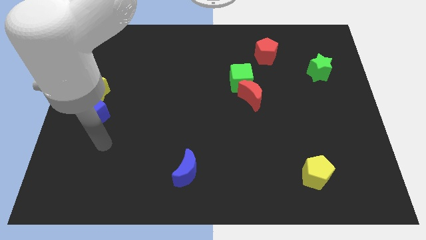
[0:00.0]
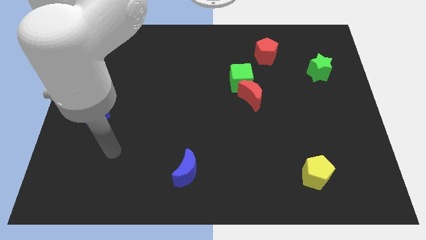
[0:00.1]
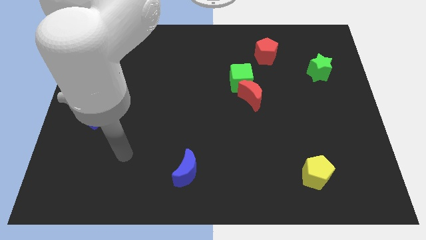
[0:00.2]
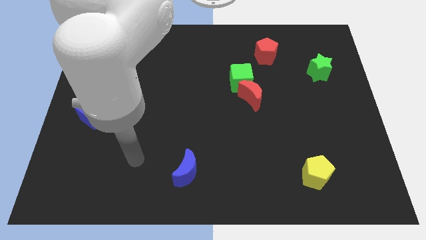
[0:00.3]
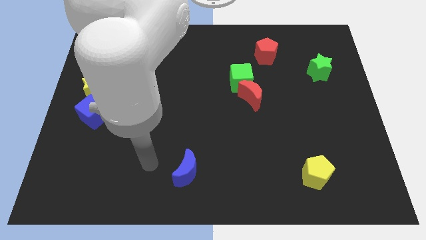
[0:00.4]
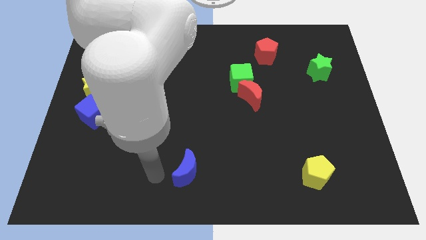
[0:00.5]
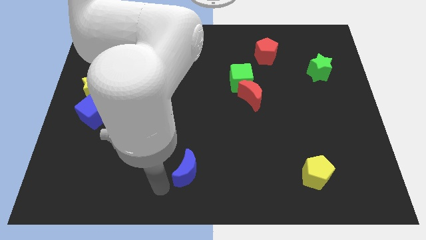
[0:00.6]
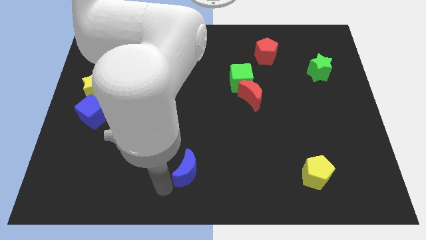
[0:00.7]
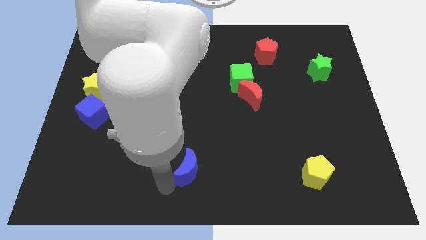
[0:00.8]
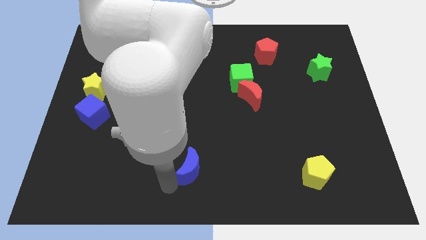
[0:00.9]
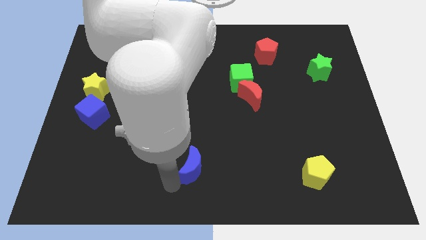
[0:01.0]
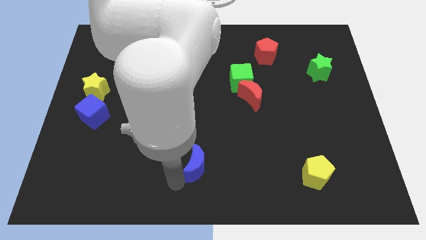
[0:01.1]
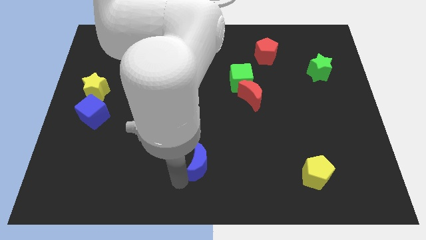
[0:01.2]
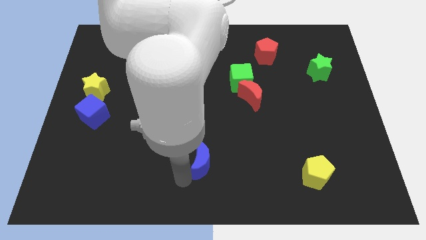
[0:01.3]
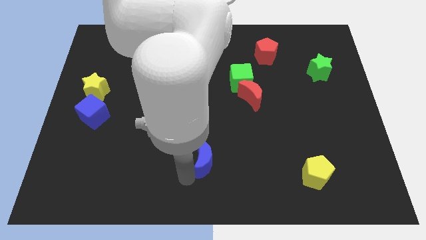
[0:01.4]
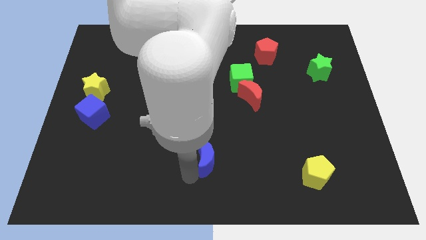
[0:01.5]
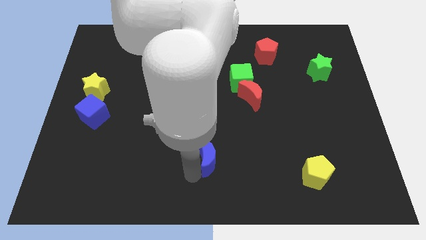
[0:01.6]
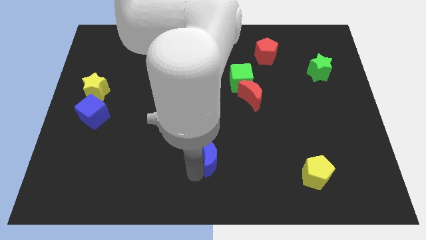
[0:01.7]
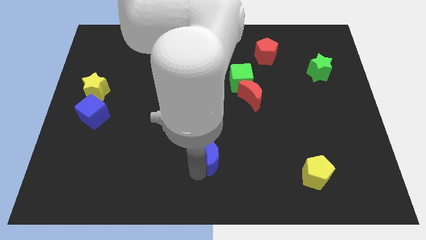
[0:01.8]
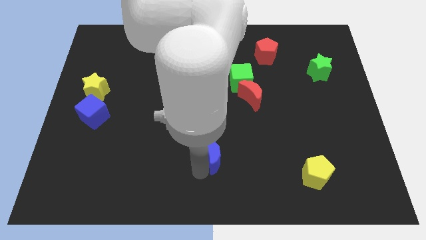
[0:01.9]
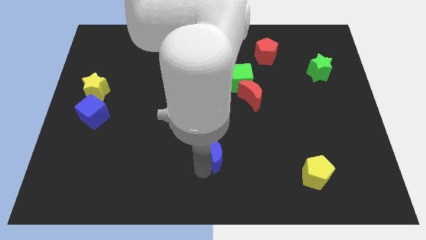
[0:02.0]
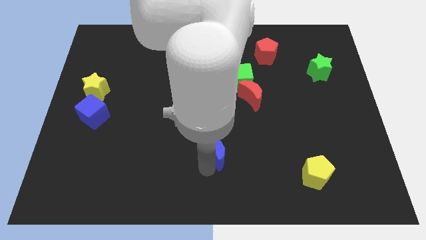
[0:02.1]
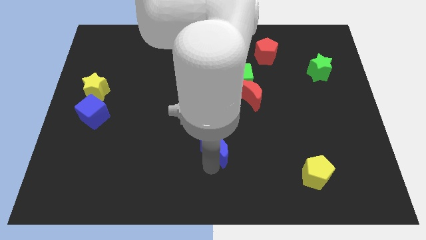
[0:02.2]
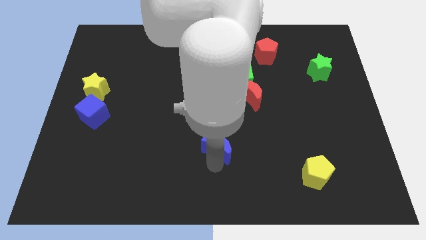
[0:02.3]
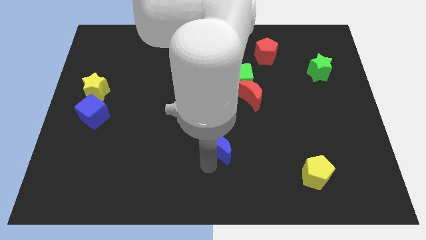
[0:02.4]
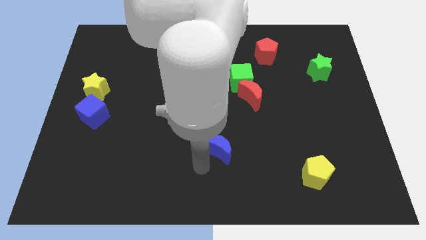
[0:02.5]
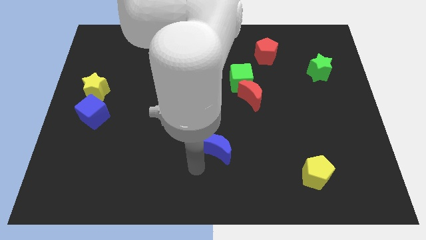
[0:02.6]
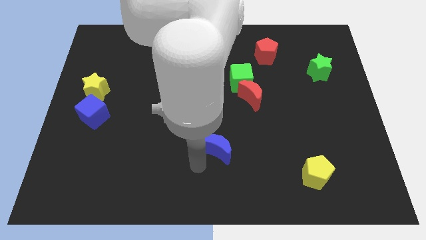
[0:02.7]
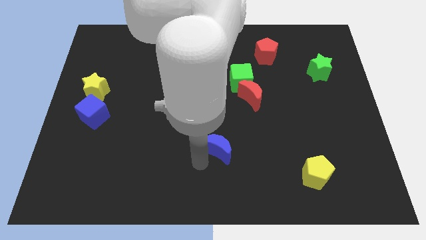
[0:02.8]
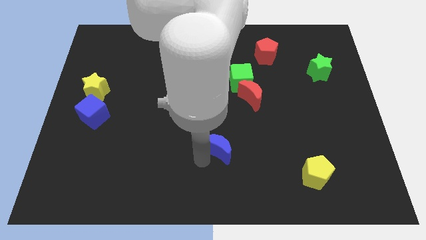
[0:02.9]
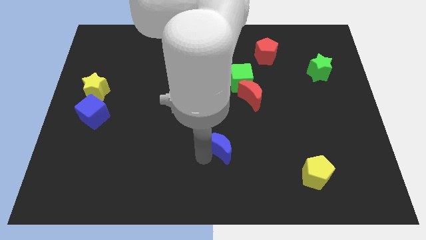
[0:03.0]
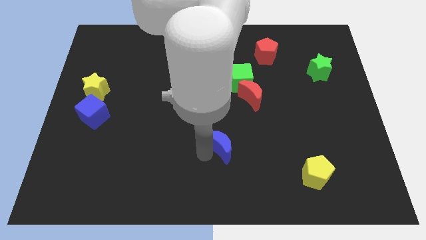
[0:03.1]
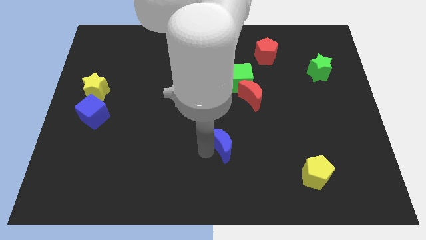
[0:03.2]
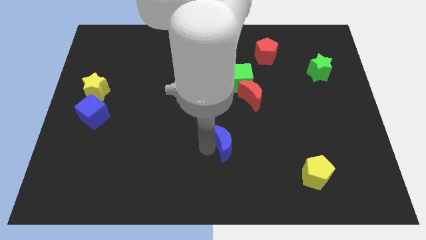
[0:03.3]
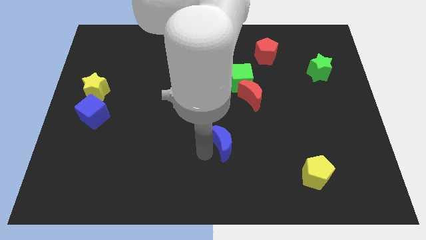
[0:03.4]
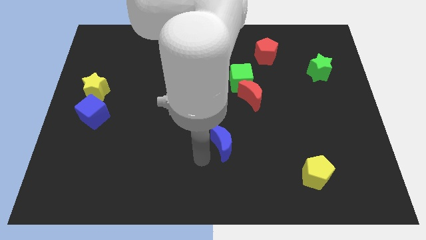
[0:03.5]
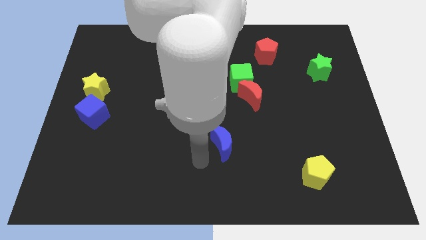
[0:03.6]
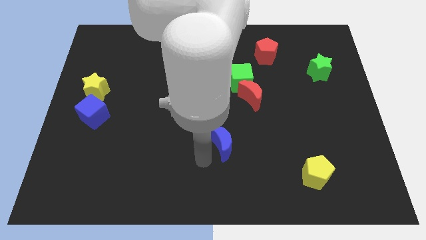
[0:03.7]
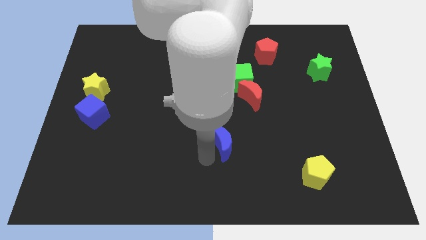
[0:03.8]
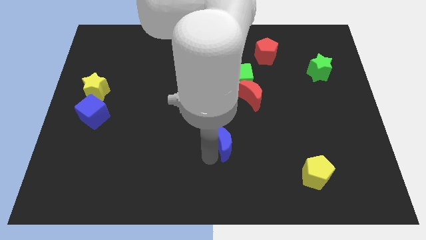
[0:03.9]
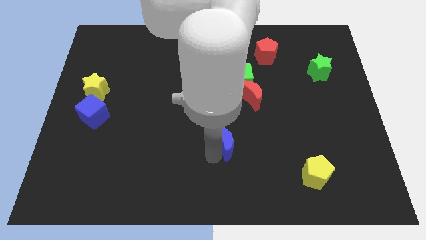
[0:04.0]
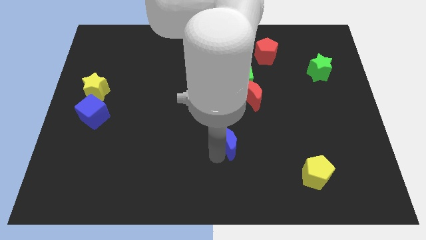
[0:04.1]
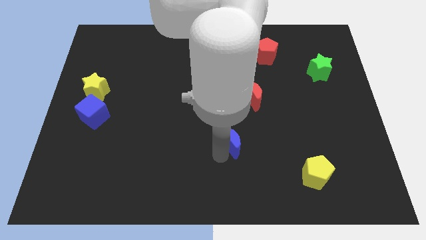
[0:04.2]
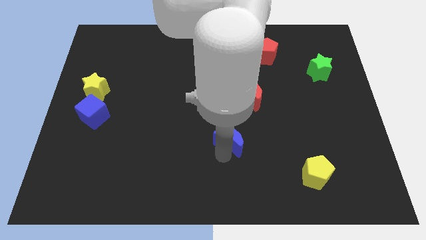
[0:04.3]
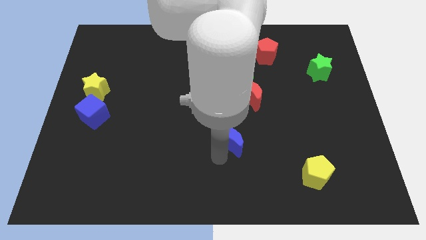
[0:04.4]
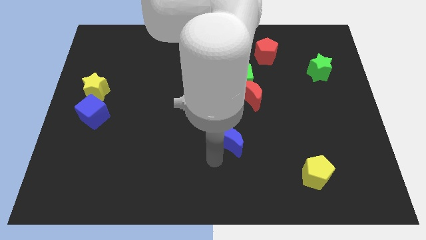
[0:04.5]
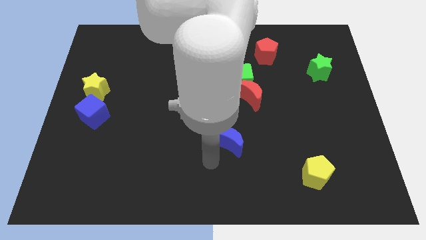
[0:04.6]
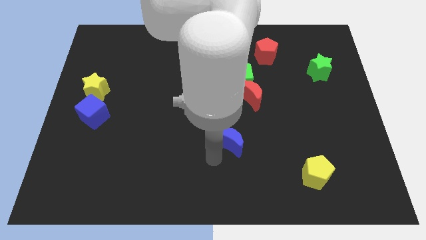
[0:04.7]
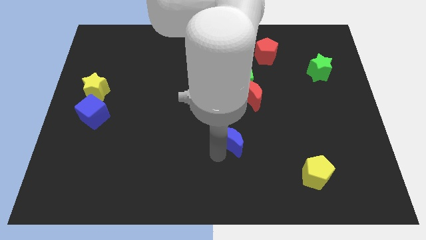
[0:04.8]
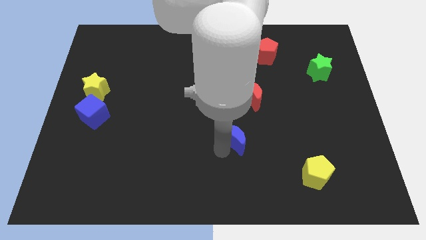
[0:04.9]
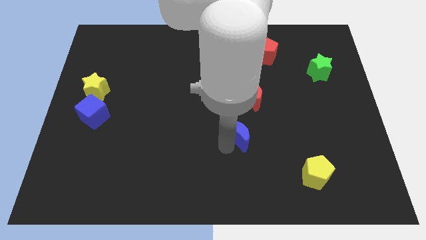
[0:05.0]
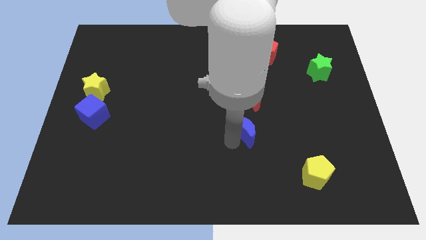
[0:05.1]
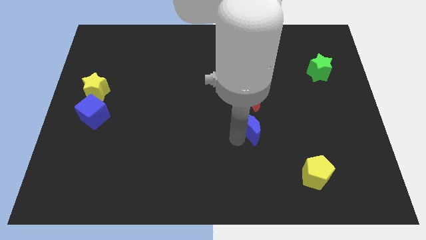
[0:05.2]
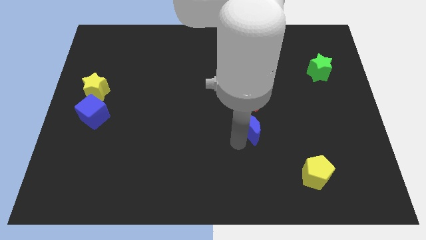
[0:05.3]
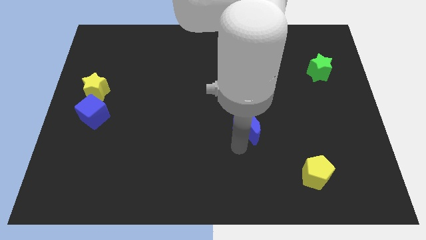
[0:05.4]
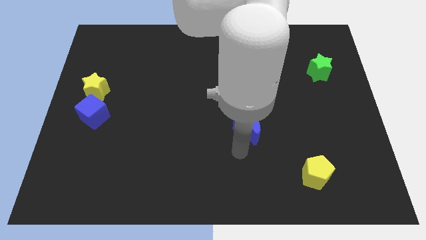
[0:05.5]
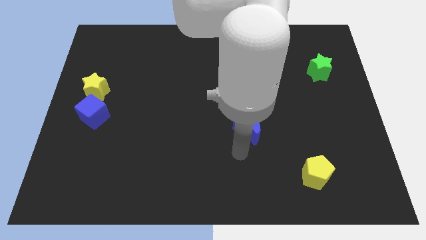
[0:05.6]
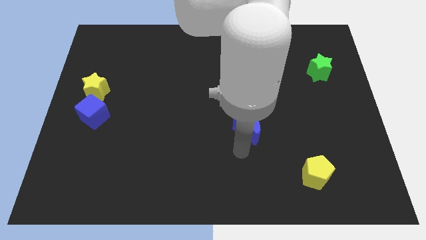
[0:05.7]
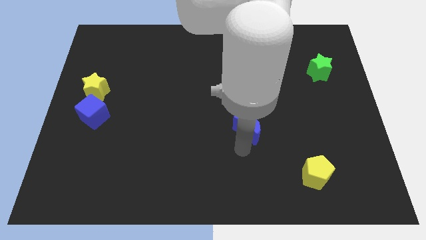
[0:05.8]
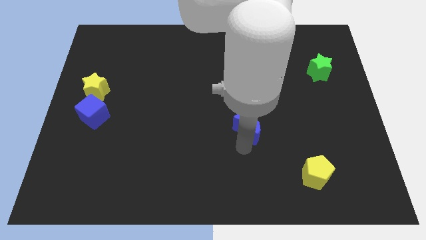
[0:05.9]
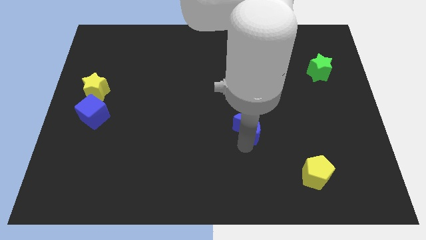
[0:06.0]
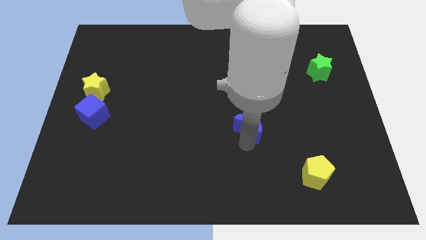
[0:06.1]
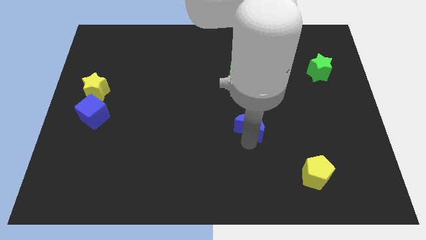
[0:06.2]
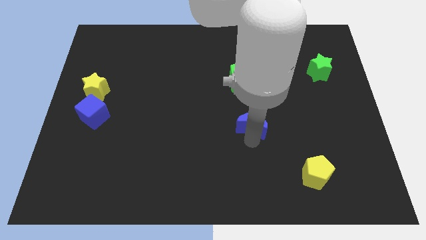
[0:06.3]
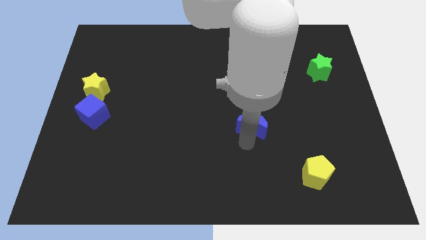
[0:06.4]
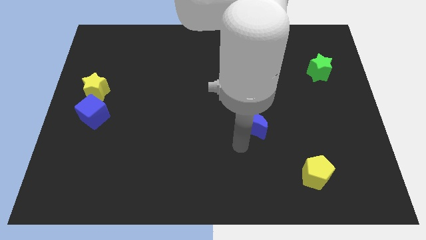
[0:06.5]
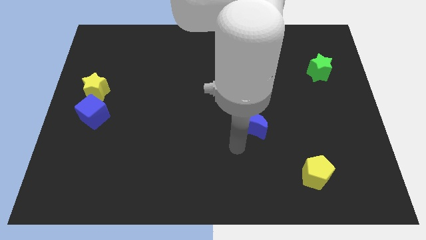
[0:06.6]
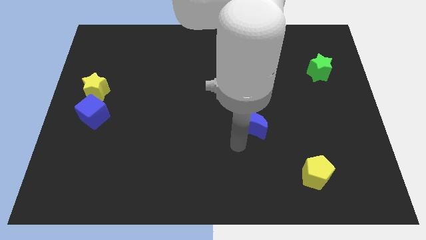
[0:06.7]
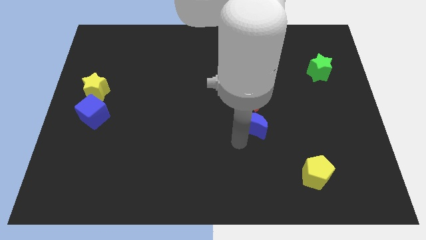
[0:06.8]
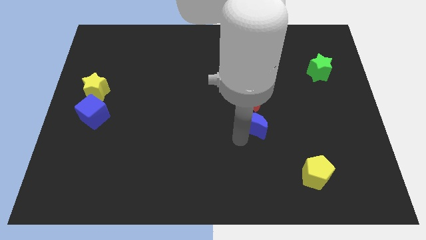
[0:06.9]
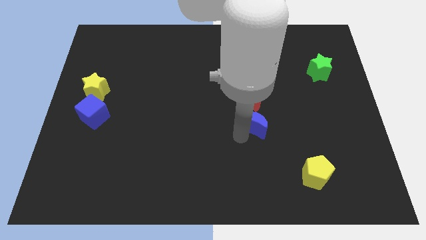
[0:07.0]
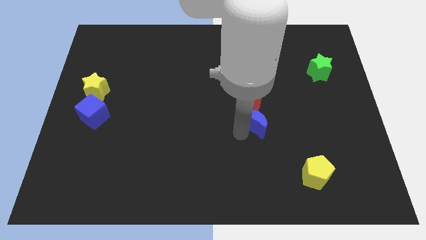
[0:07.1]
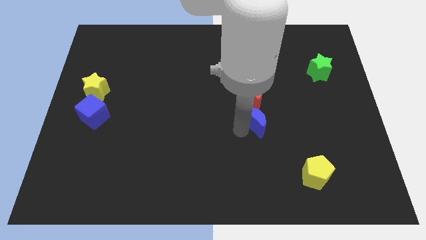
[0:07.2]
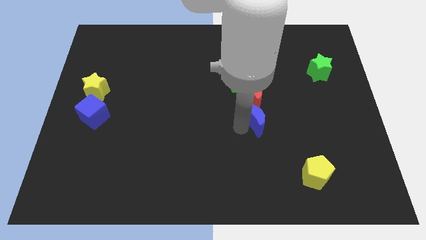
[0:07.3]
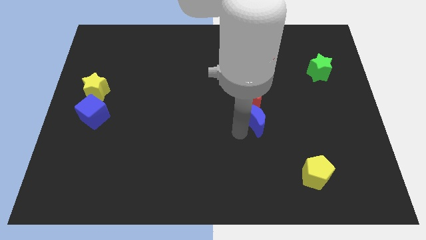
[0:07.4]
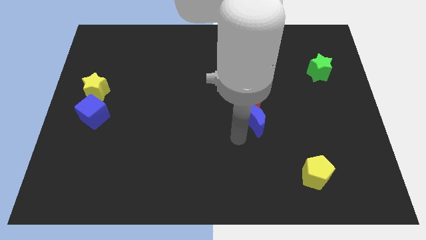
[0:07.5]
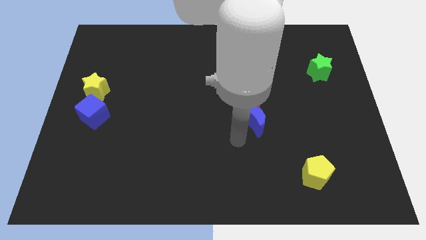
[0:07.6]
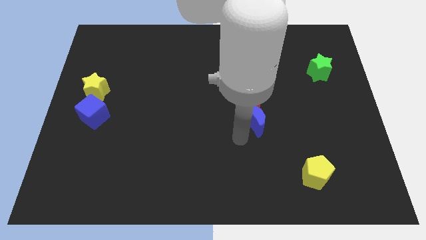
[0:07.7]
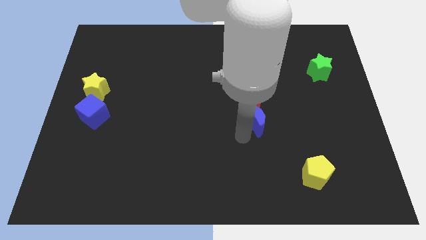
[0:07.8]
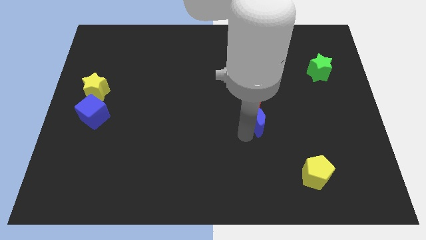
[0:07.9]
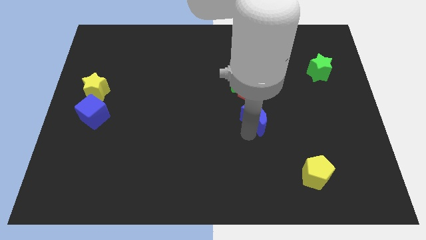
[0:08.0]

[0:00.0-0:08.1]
push the blue moon up and then to the right

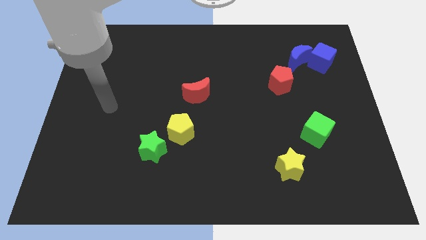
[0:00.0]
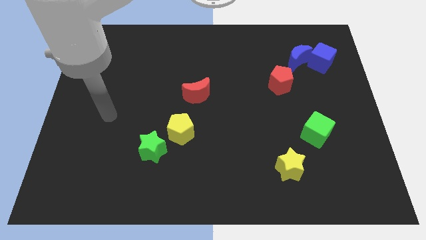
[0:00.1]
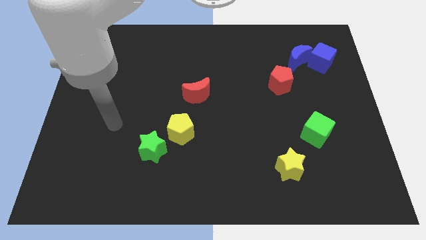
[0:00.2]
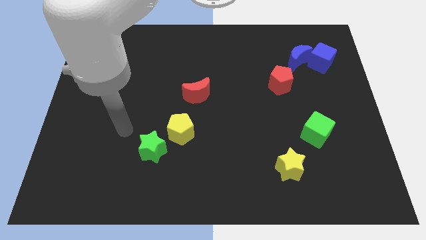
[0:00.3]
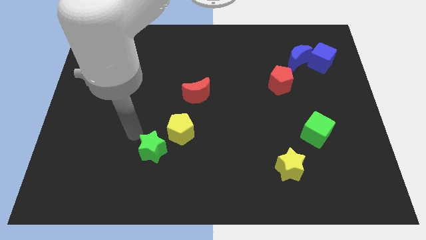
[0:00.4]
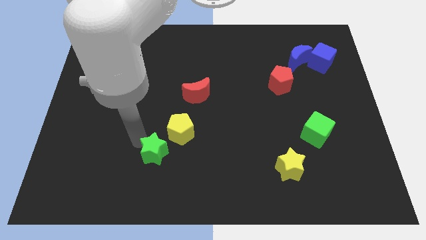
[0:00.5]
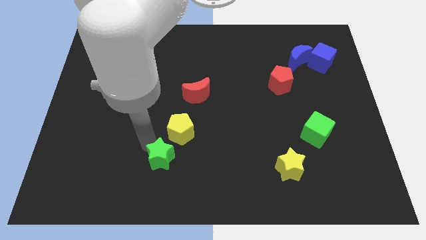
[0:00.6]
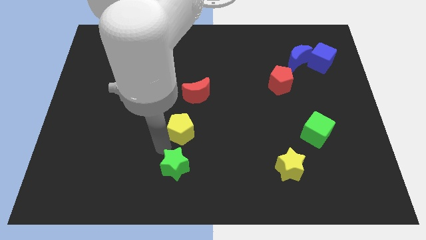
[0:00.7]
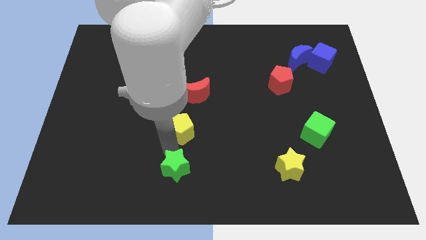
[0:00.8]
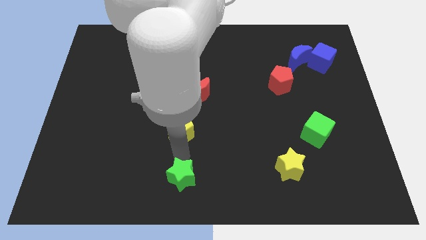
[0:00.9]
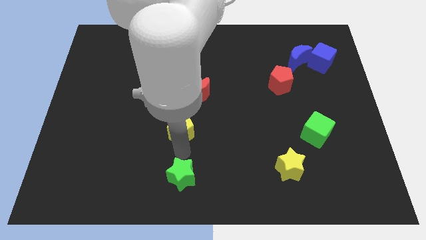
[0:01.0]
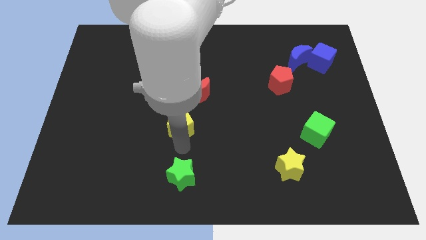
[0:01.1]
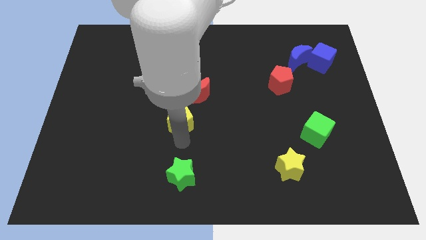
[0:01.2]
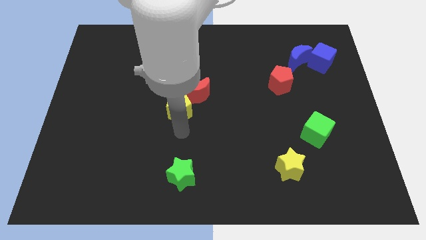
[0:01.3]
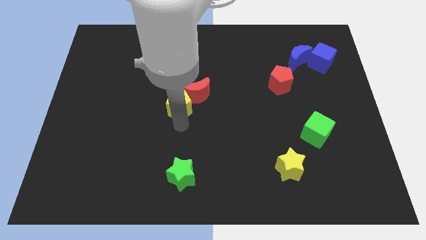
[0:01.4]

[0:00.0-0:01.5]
move the yellow pentagon up a little bit
